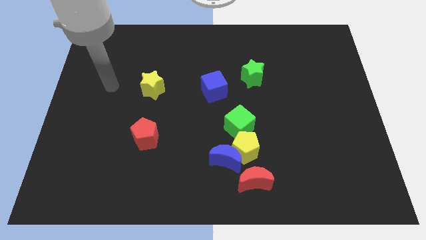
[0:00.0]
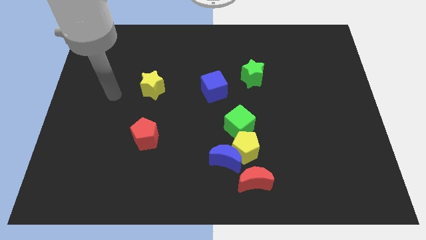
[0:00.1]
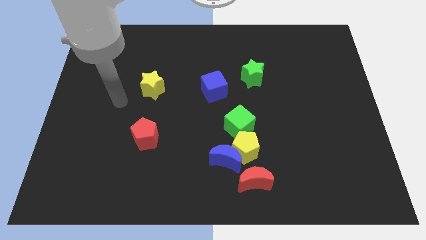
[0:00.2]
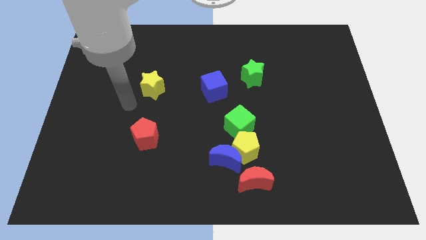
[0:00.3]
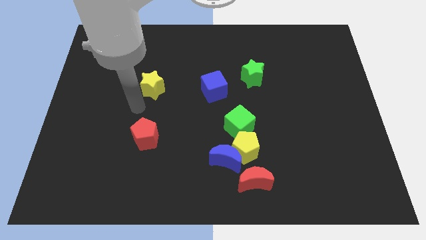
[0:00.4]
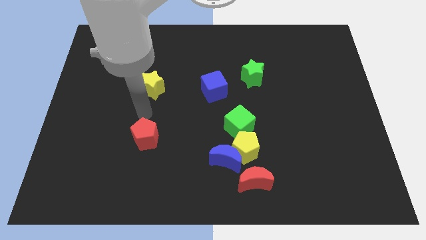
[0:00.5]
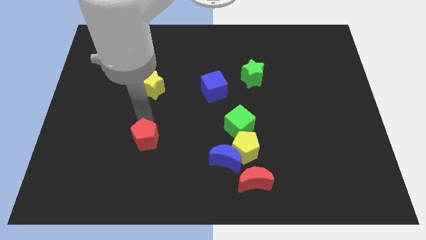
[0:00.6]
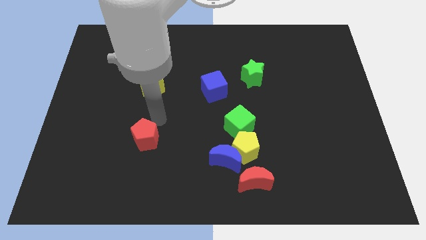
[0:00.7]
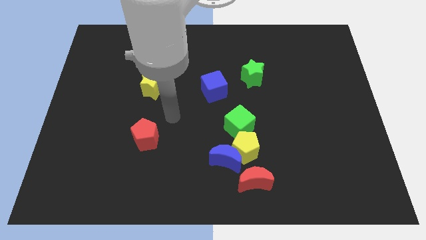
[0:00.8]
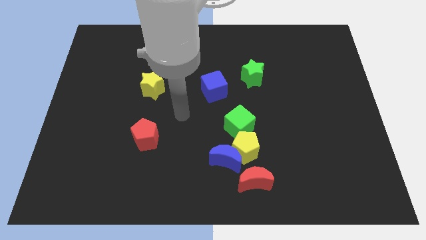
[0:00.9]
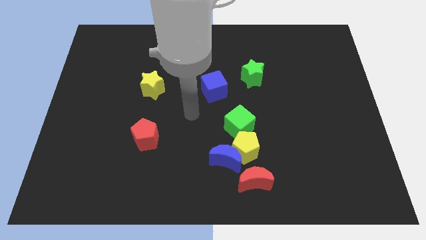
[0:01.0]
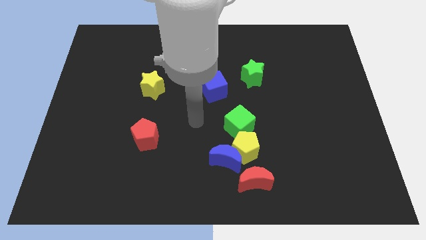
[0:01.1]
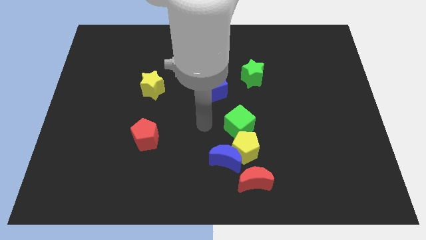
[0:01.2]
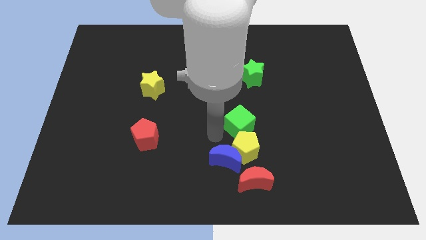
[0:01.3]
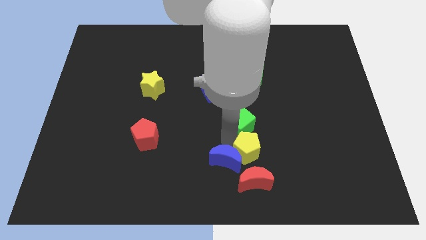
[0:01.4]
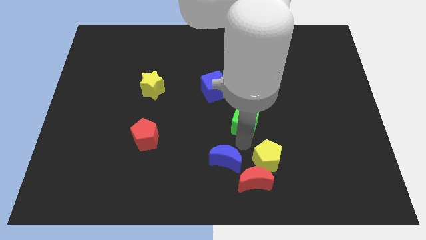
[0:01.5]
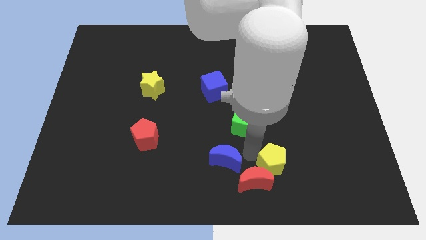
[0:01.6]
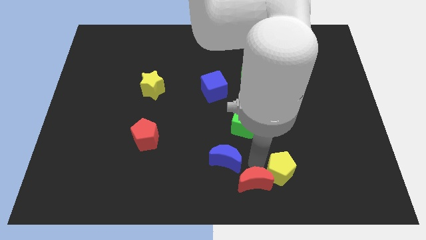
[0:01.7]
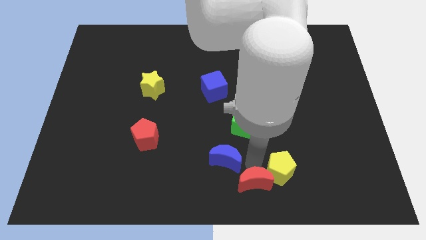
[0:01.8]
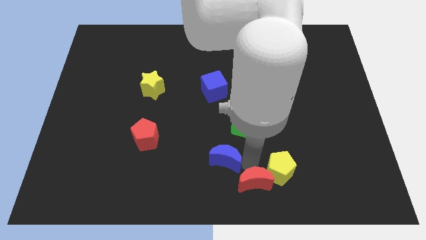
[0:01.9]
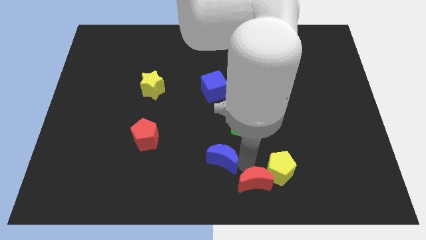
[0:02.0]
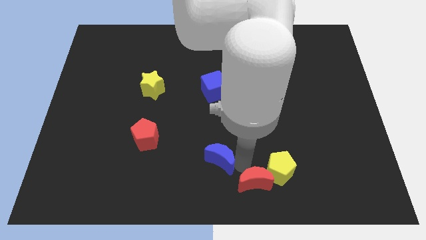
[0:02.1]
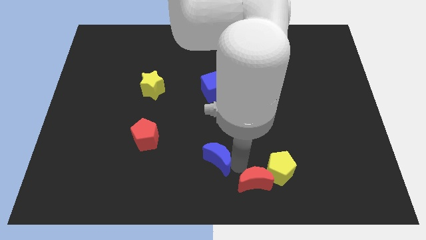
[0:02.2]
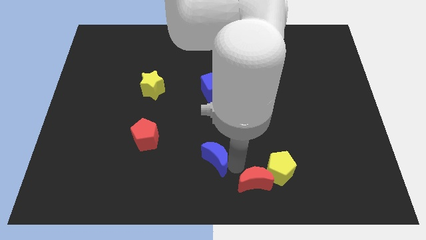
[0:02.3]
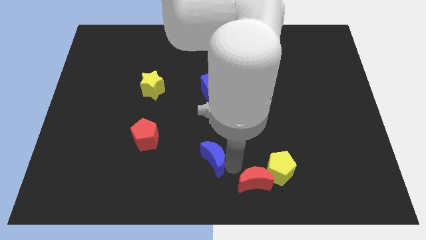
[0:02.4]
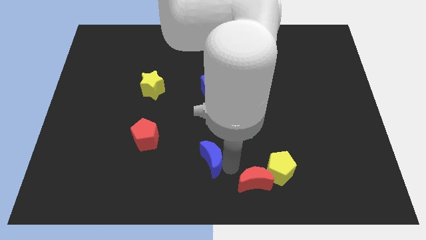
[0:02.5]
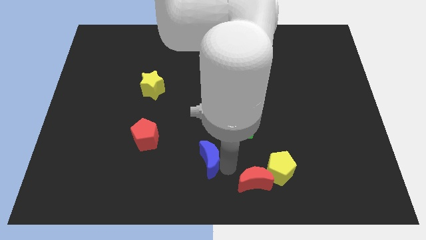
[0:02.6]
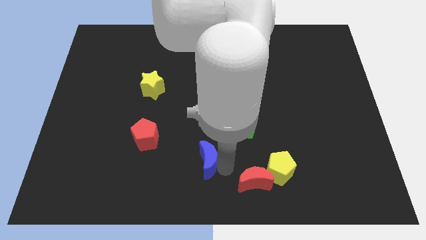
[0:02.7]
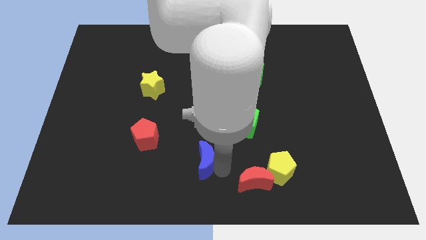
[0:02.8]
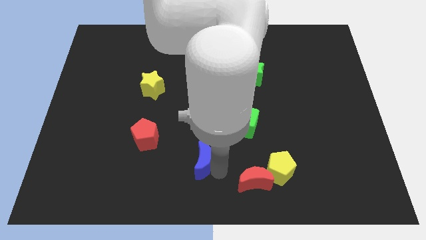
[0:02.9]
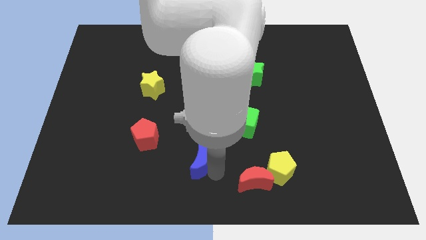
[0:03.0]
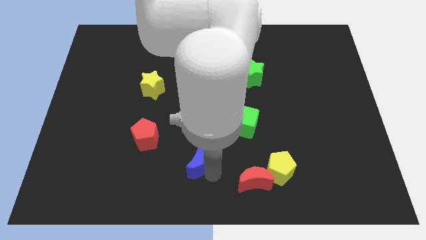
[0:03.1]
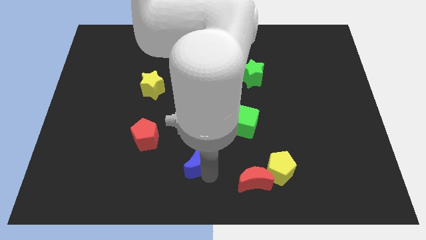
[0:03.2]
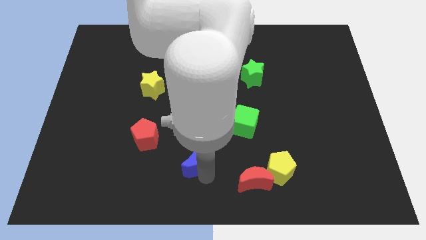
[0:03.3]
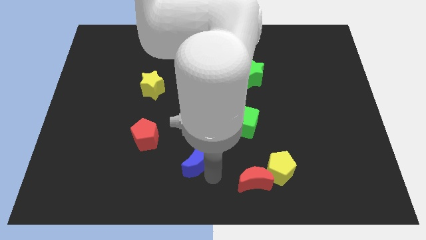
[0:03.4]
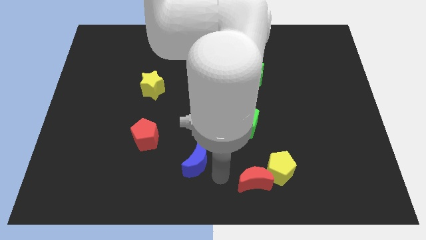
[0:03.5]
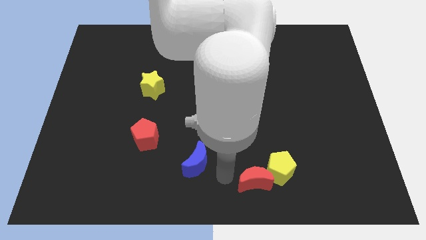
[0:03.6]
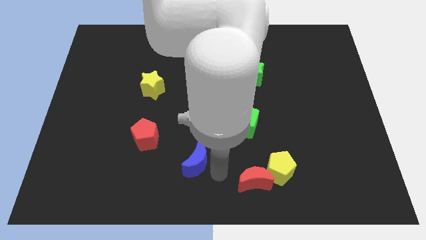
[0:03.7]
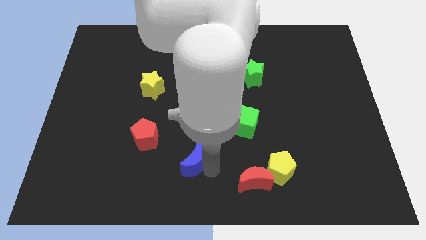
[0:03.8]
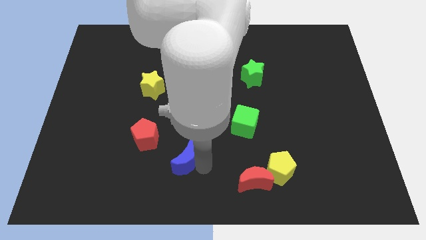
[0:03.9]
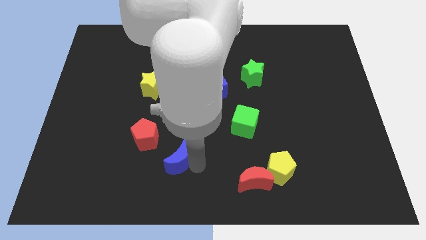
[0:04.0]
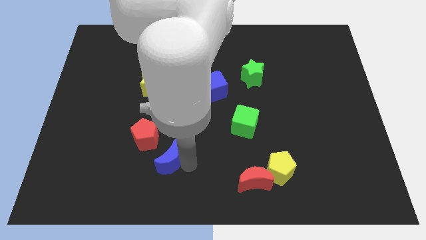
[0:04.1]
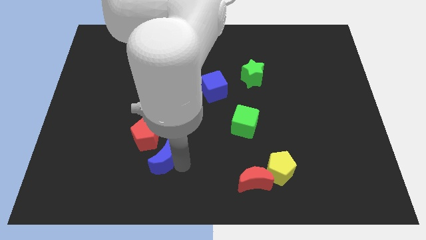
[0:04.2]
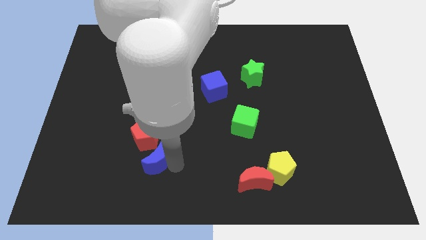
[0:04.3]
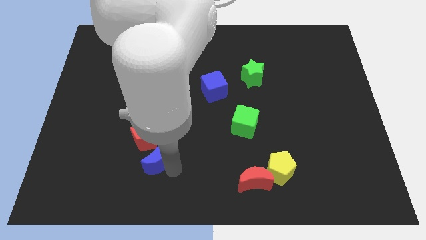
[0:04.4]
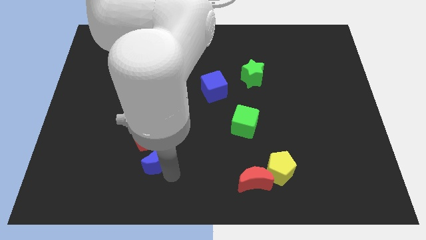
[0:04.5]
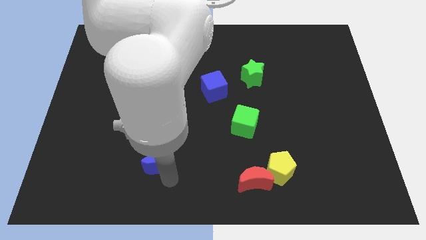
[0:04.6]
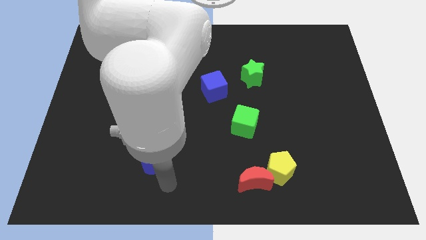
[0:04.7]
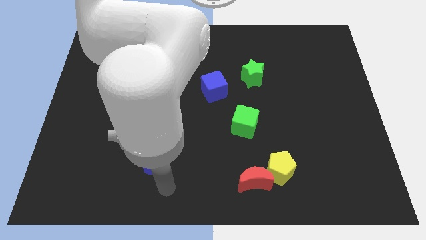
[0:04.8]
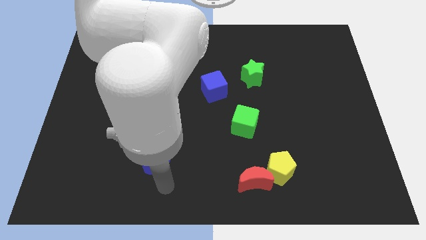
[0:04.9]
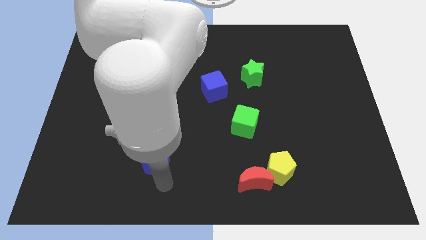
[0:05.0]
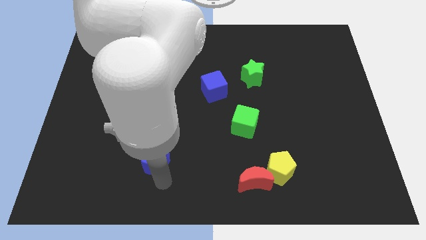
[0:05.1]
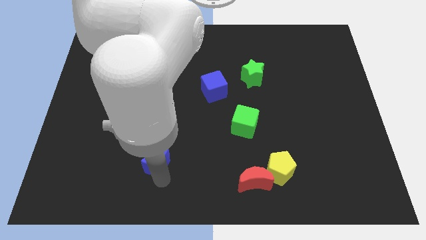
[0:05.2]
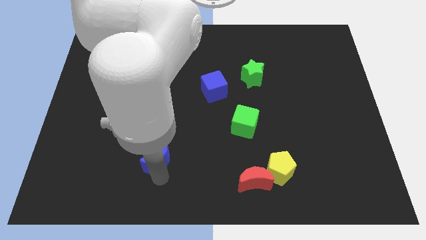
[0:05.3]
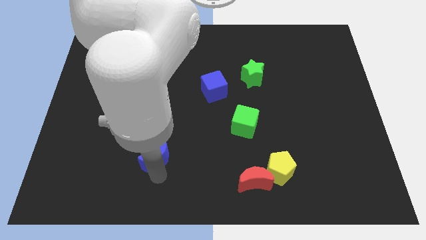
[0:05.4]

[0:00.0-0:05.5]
move the blue moon close to the red pentagon

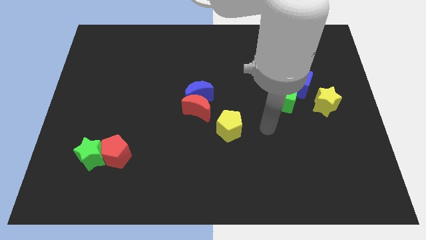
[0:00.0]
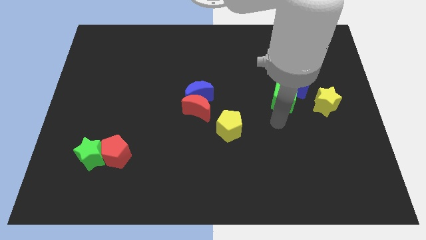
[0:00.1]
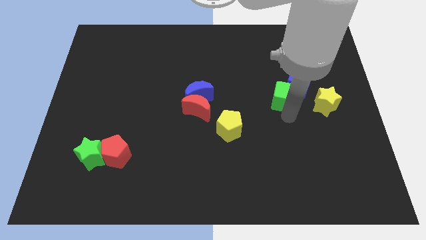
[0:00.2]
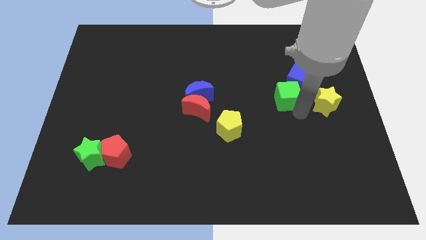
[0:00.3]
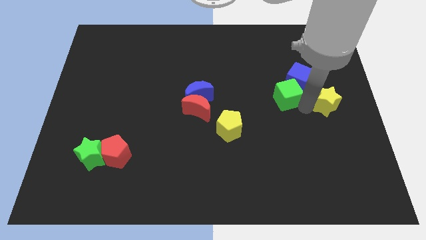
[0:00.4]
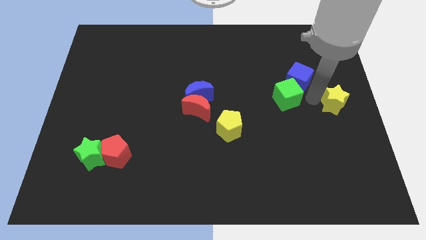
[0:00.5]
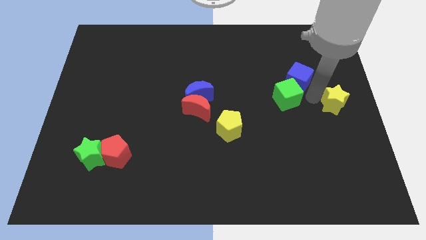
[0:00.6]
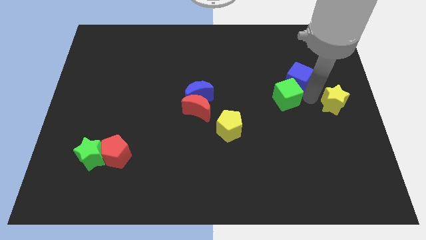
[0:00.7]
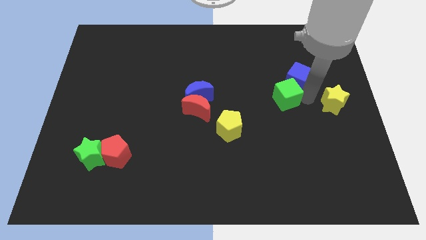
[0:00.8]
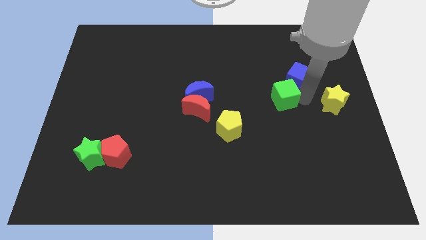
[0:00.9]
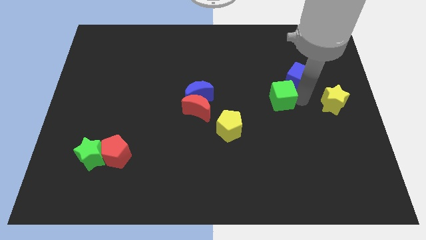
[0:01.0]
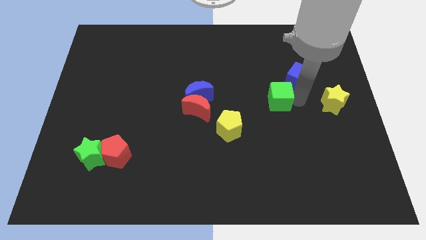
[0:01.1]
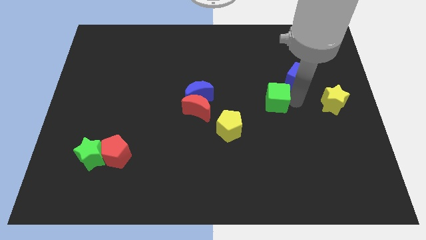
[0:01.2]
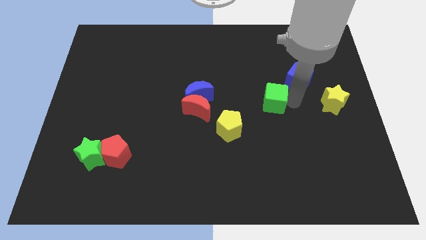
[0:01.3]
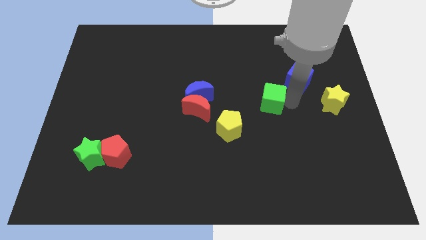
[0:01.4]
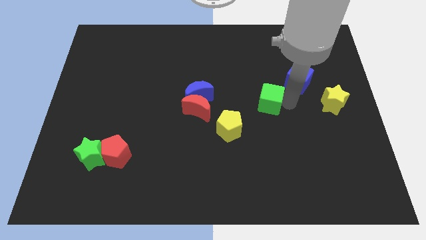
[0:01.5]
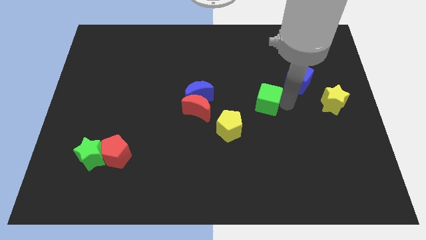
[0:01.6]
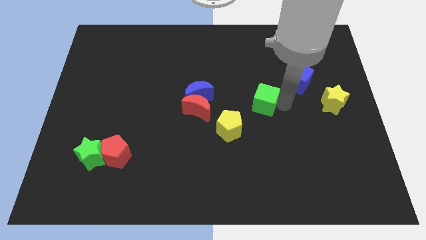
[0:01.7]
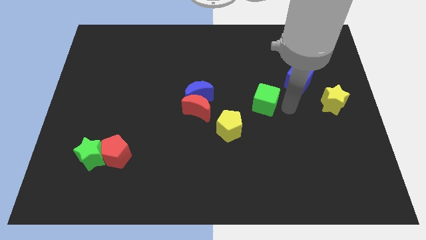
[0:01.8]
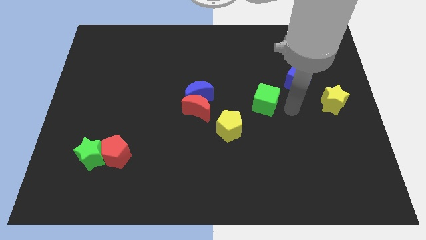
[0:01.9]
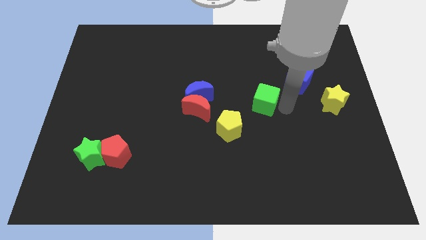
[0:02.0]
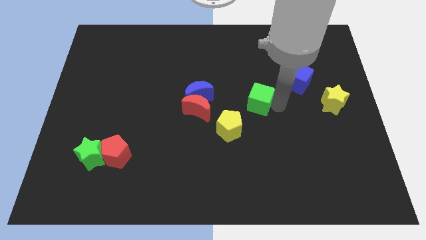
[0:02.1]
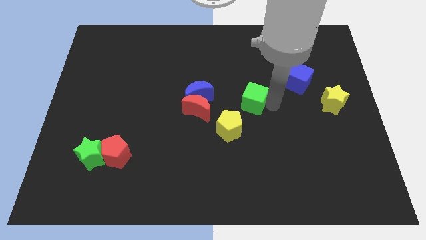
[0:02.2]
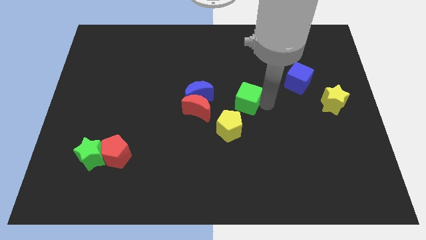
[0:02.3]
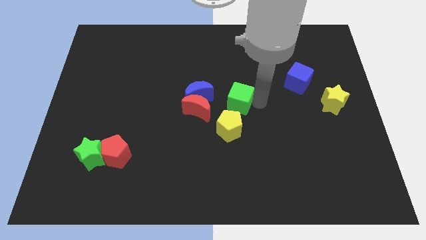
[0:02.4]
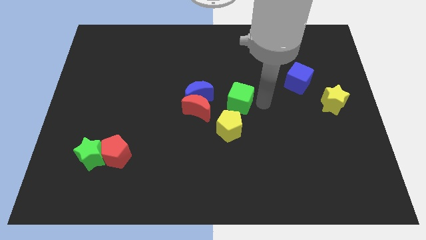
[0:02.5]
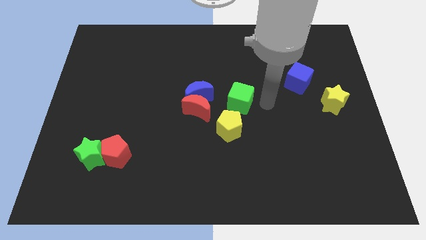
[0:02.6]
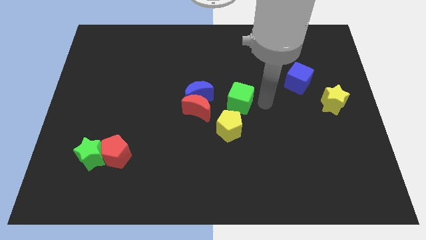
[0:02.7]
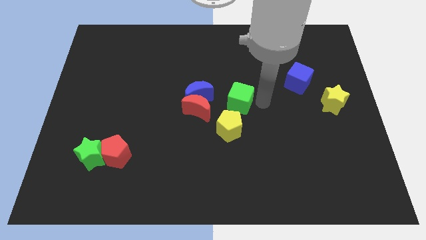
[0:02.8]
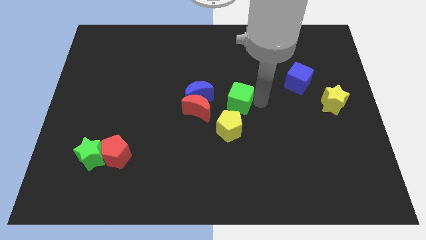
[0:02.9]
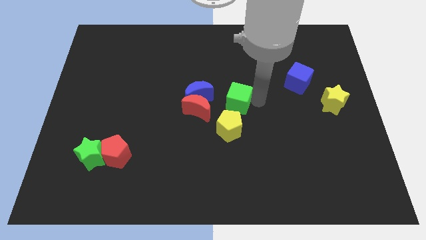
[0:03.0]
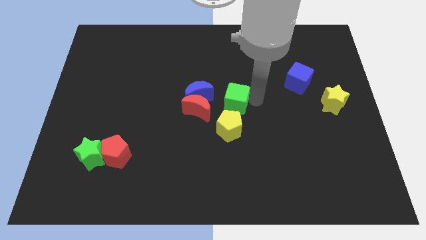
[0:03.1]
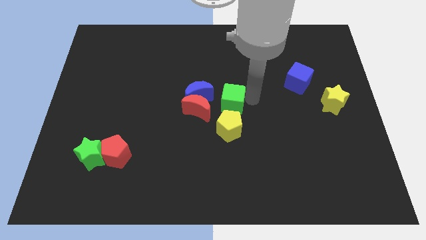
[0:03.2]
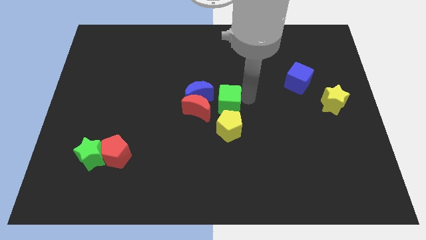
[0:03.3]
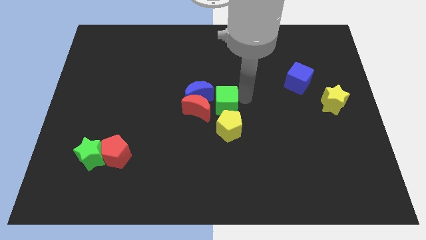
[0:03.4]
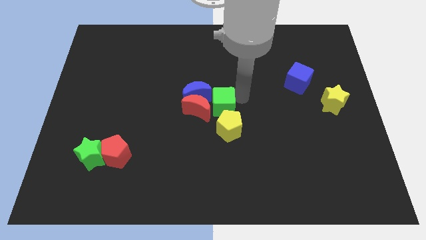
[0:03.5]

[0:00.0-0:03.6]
slide the green cube next to the red moon
